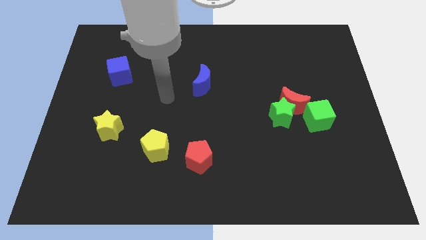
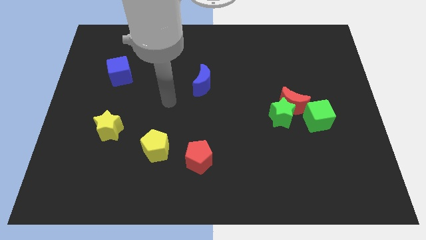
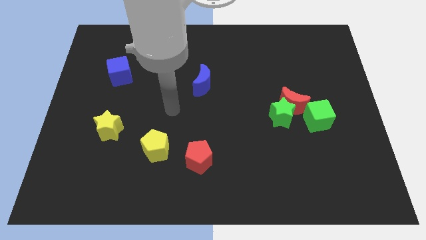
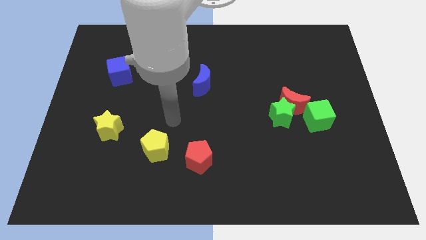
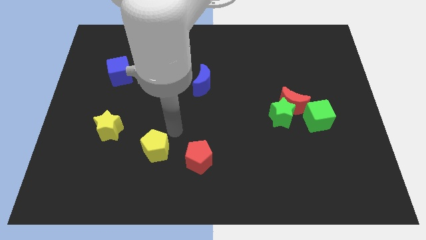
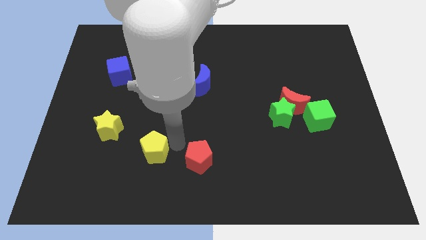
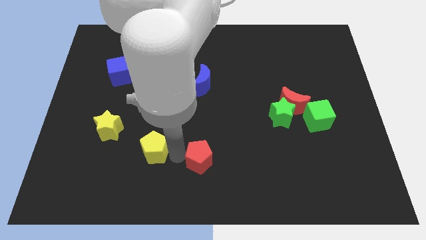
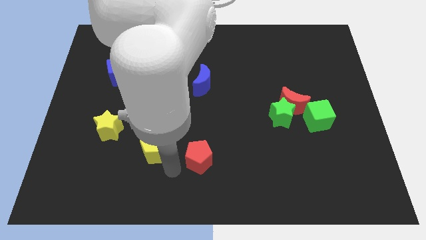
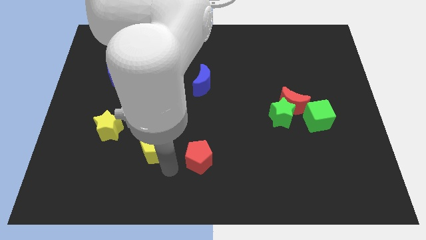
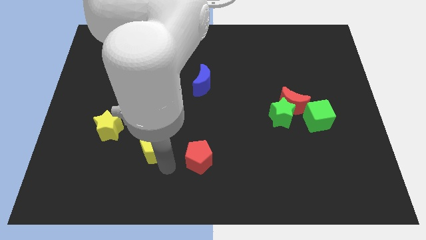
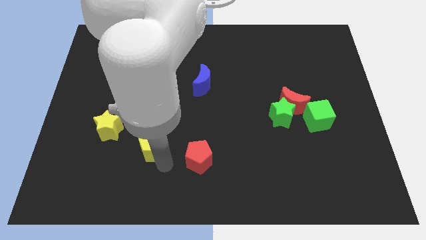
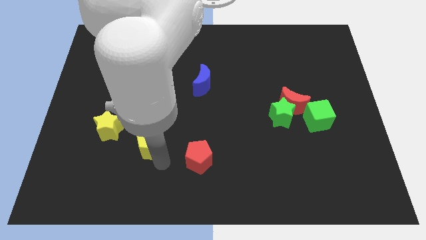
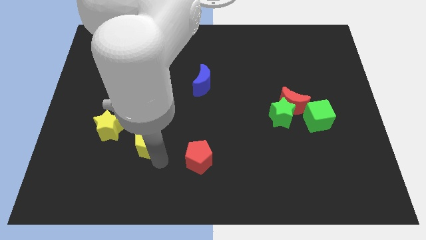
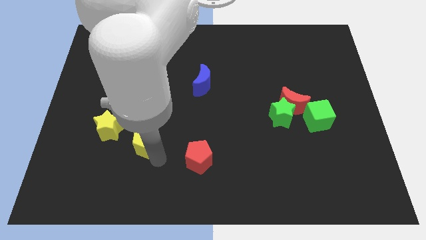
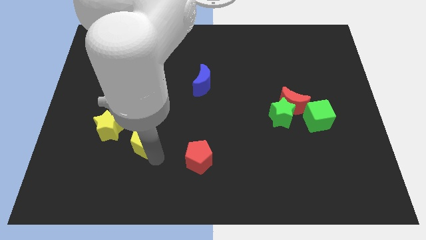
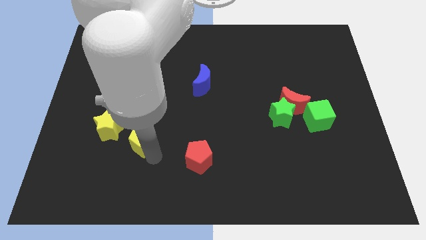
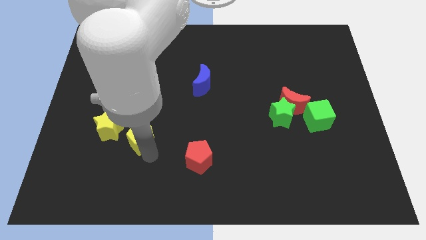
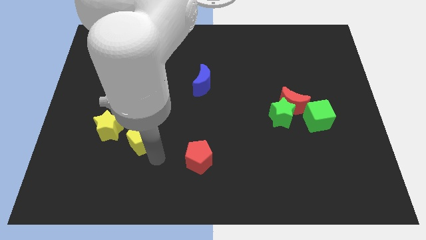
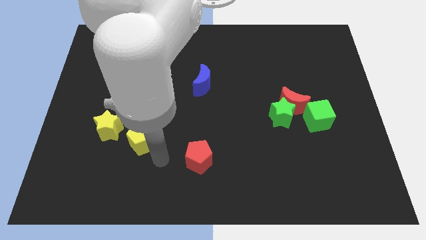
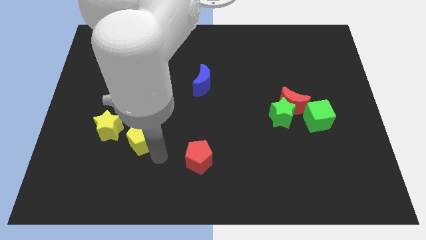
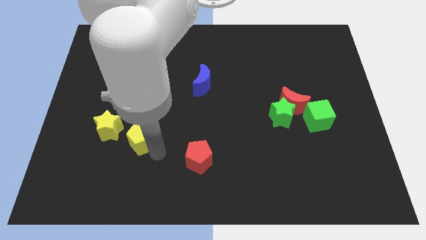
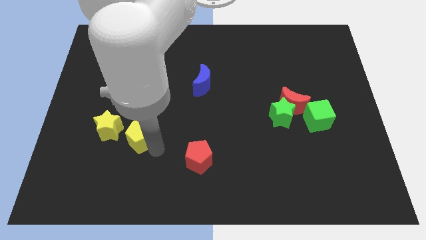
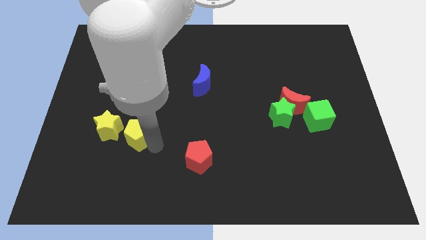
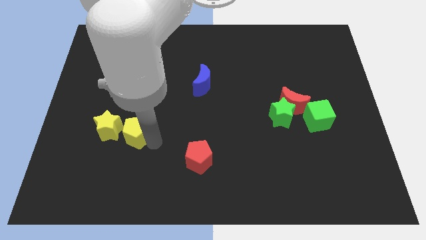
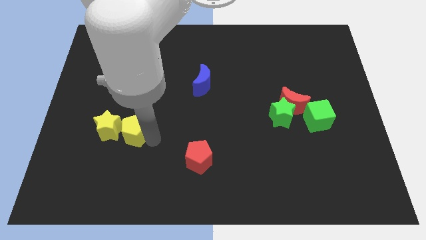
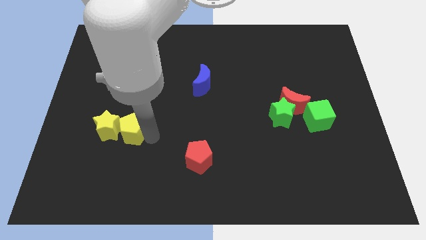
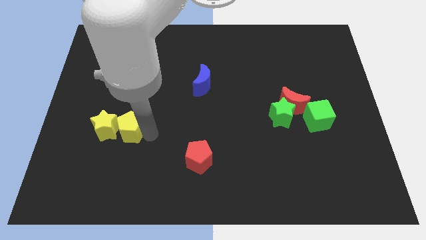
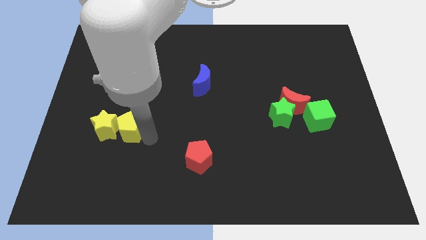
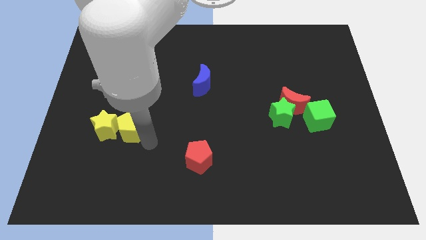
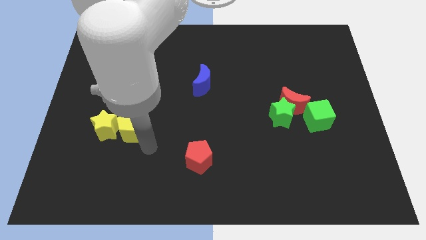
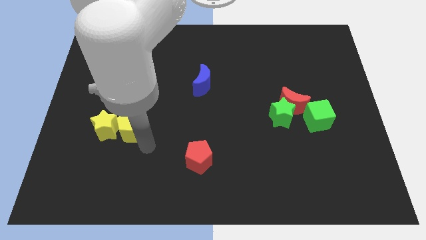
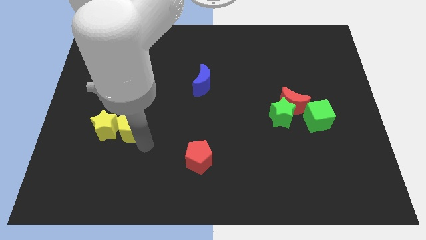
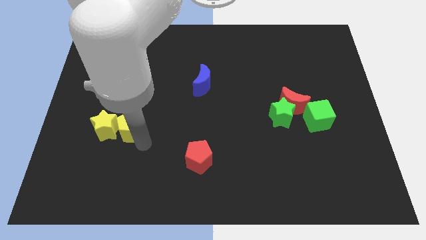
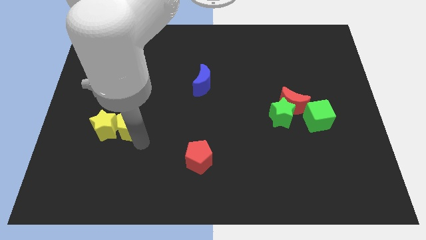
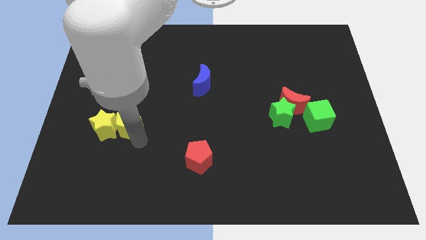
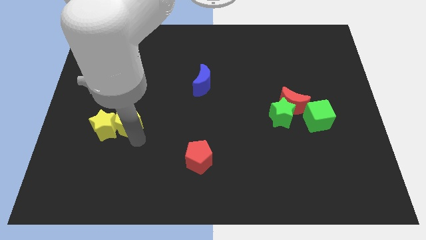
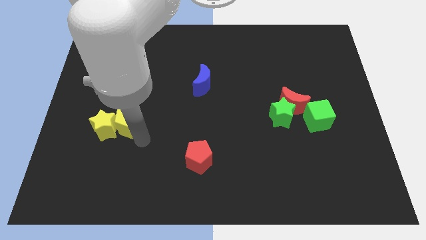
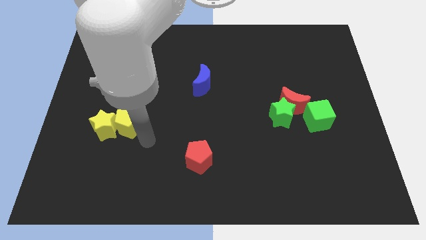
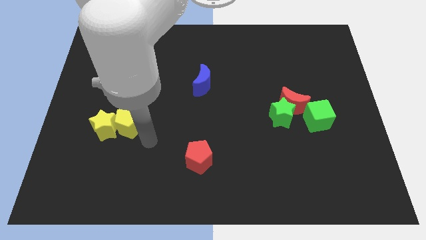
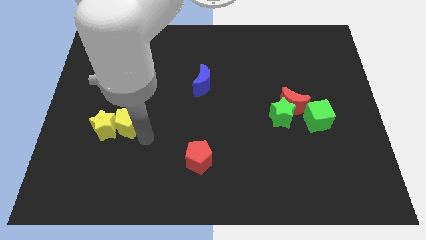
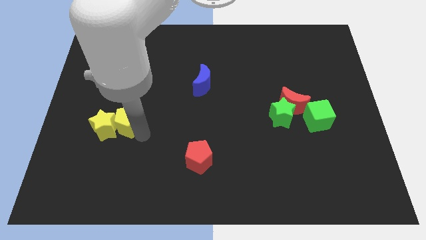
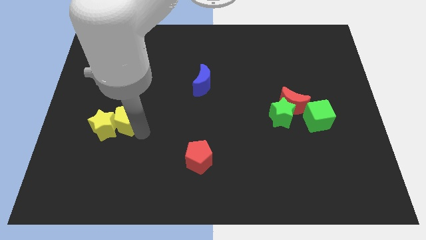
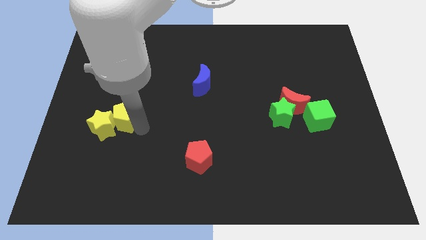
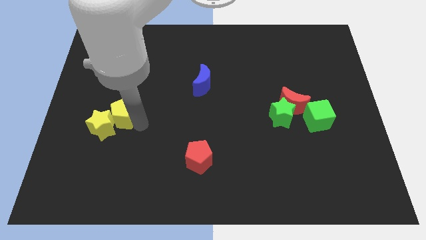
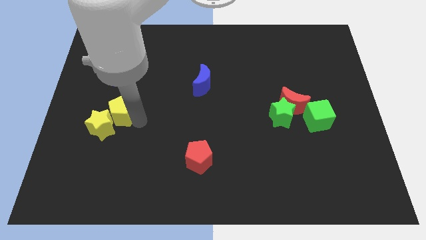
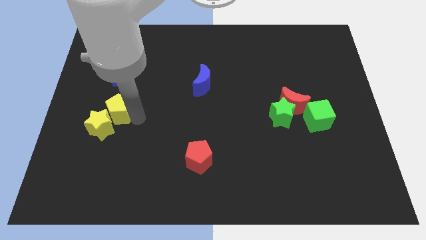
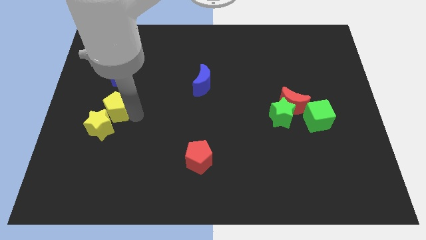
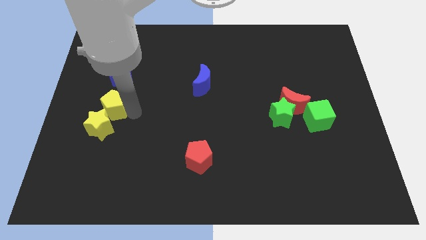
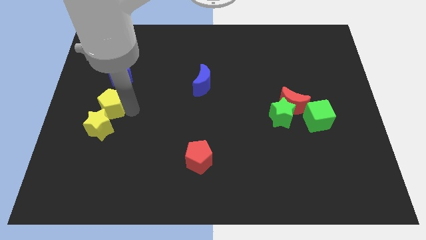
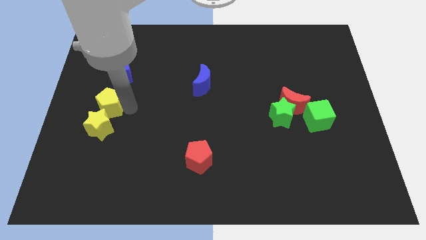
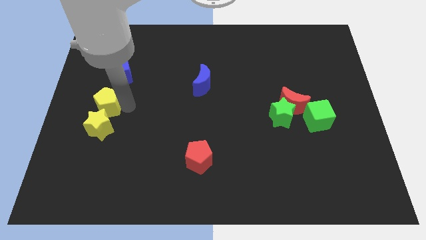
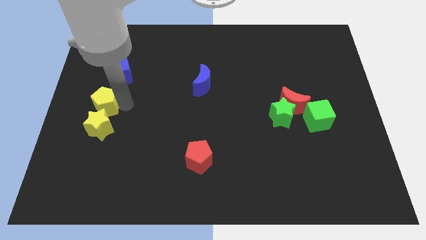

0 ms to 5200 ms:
push the yellow pentagon to the top left of the yellow star

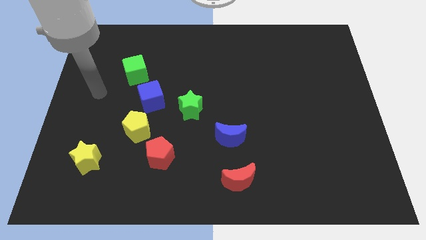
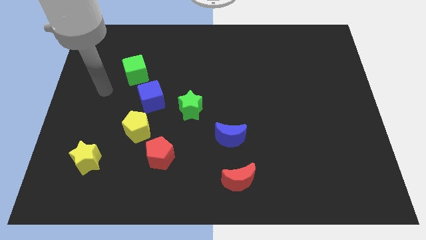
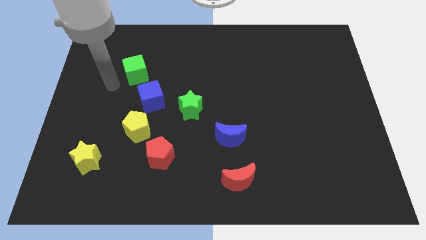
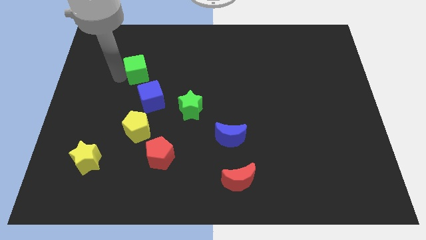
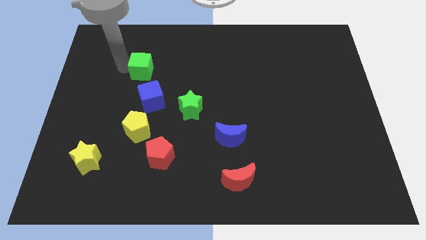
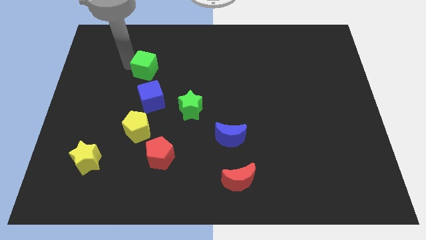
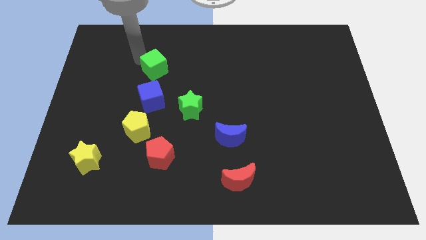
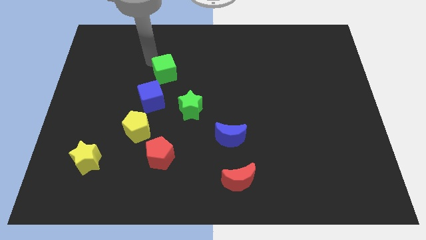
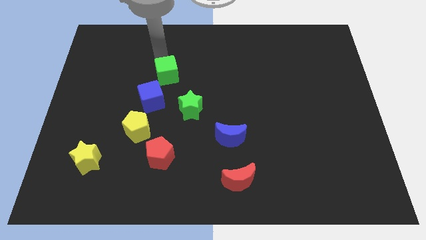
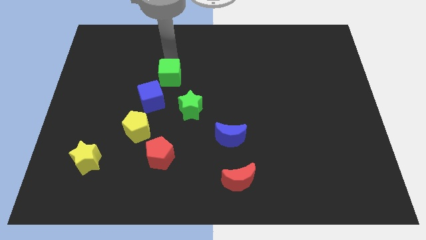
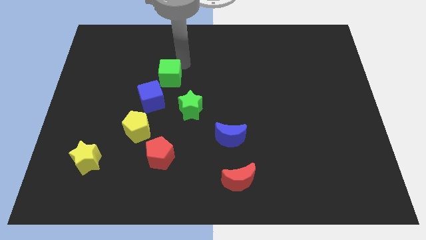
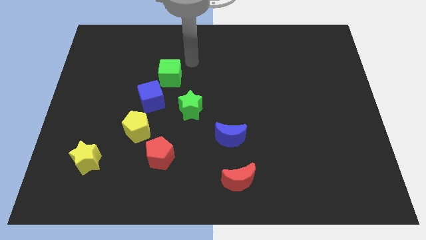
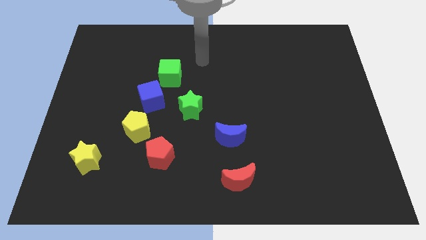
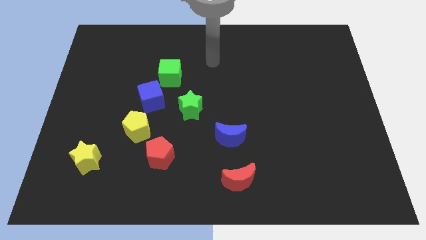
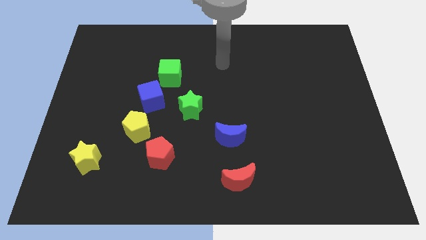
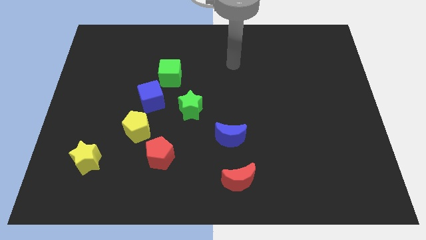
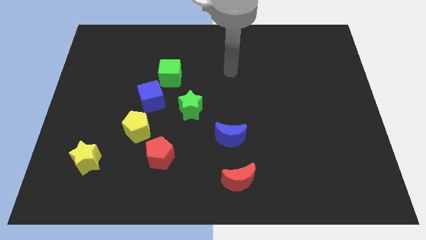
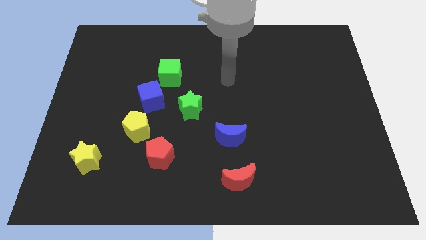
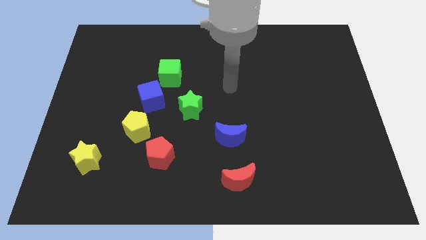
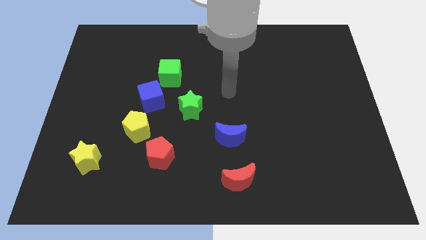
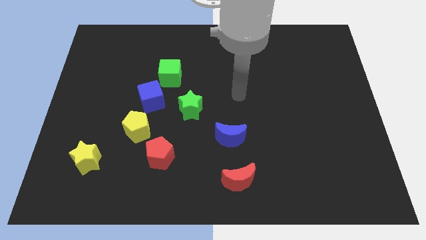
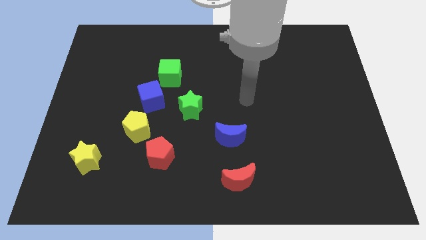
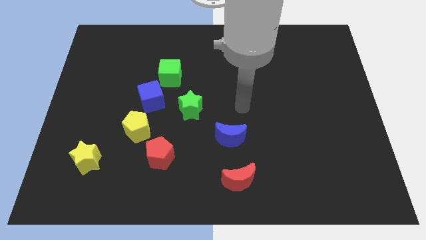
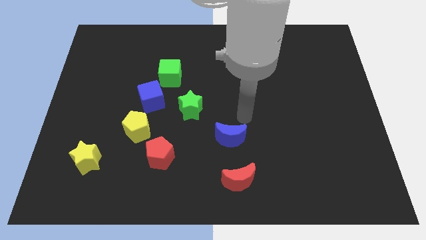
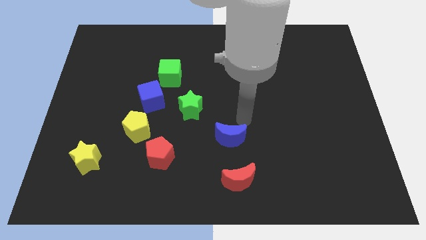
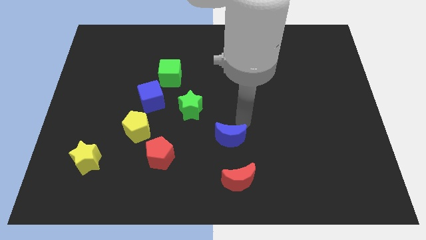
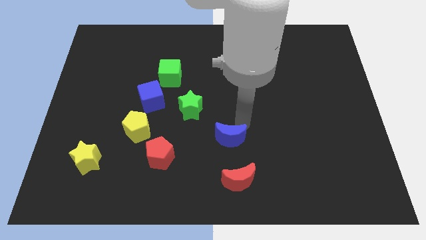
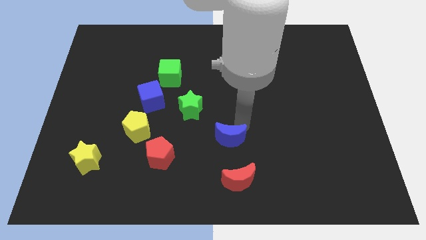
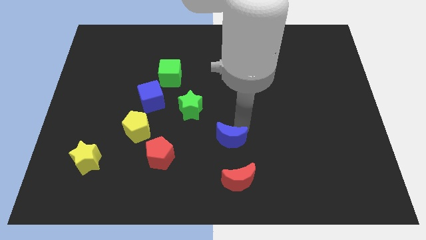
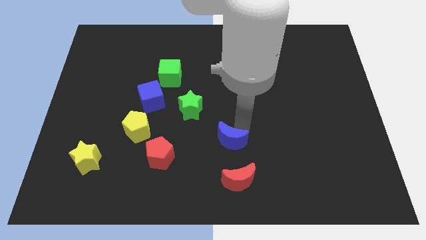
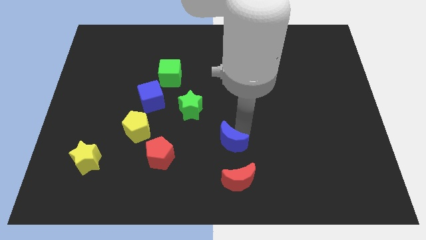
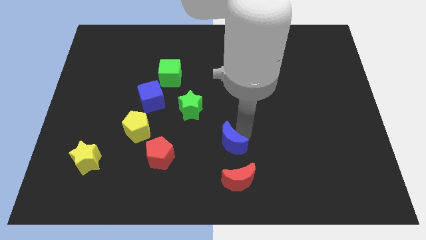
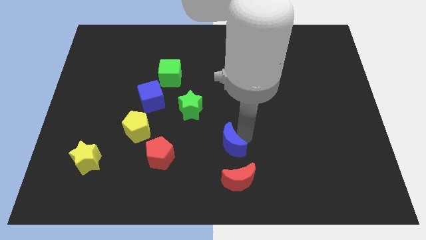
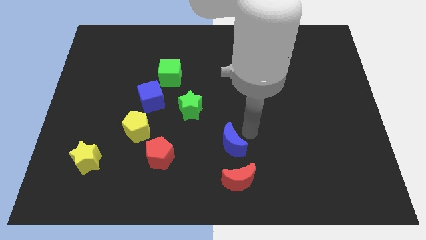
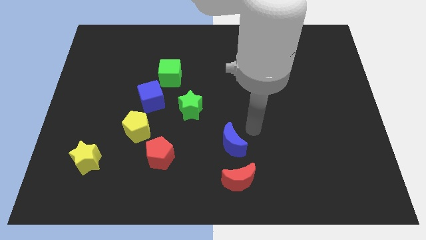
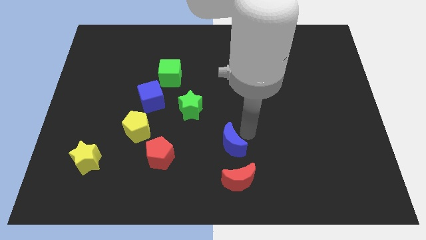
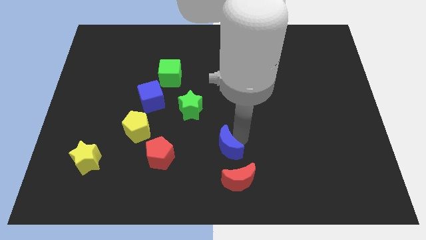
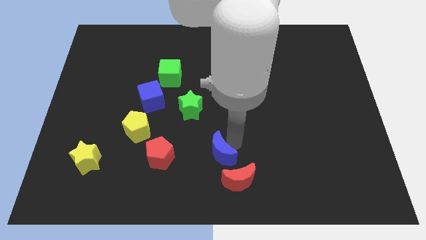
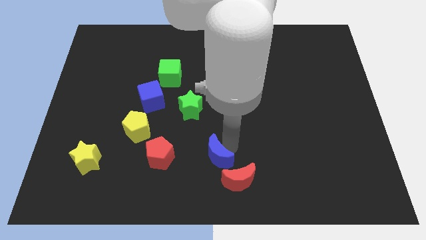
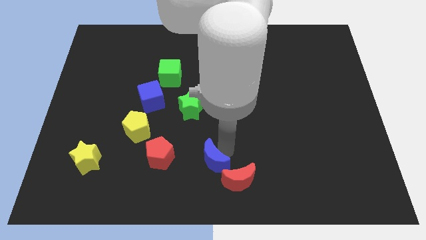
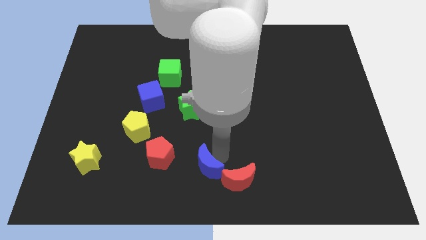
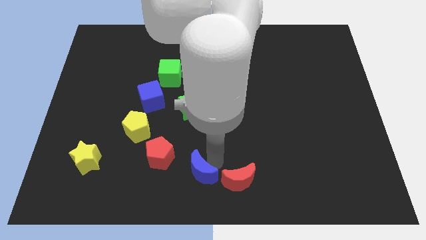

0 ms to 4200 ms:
put the blue moon diagonally down and to the right of the red pentagon
